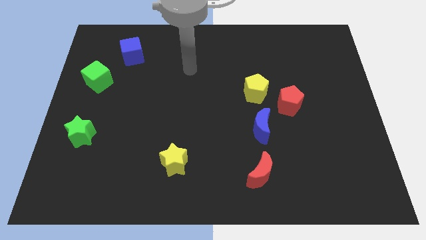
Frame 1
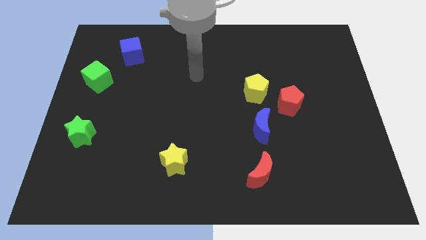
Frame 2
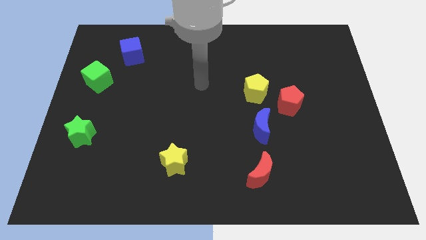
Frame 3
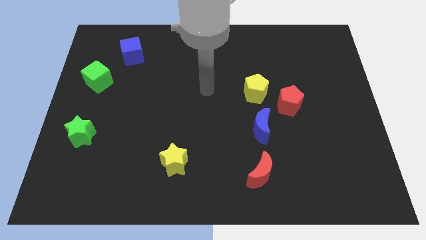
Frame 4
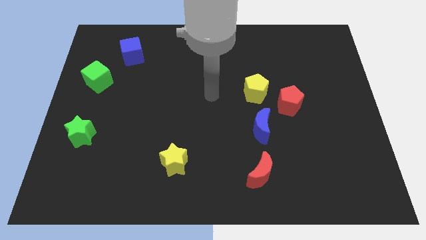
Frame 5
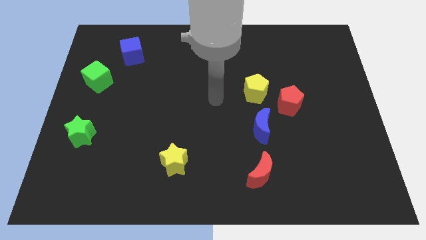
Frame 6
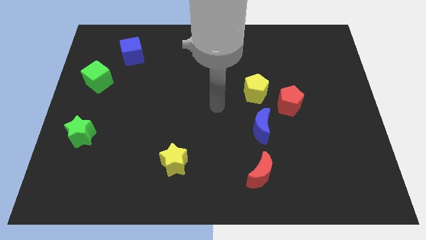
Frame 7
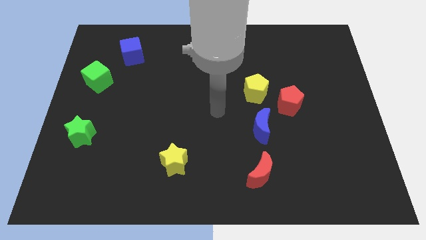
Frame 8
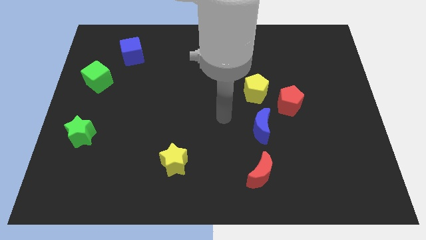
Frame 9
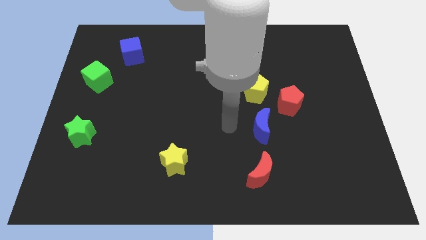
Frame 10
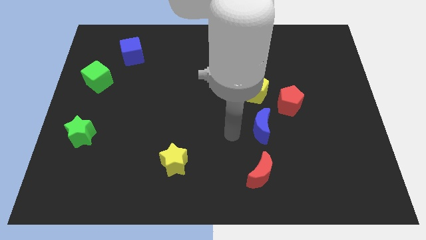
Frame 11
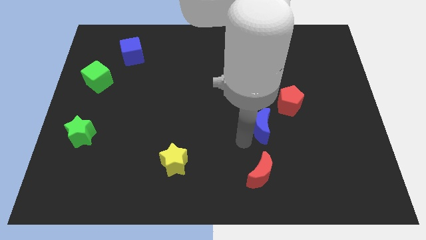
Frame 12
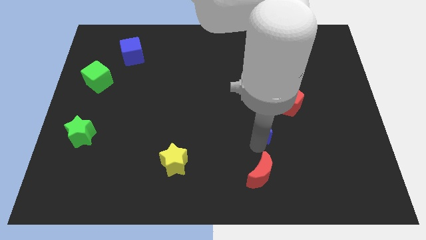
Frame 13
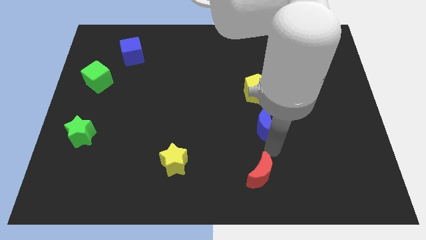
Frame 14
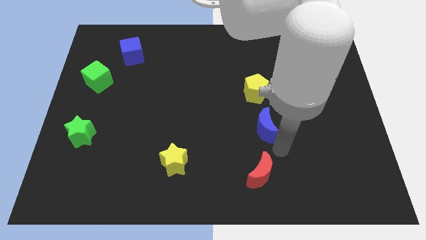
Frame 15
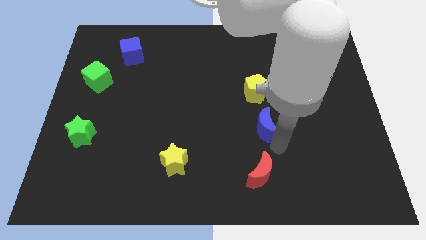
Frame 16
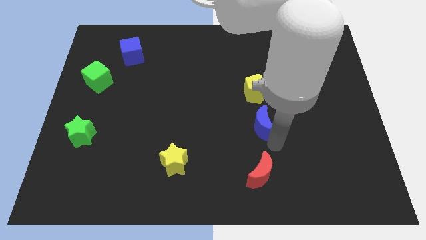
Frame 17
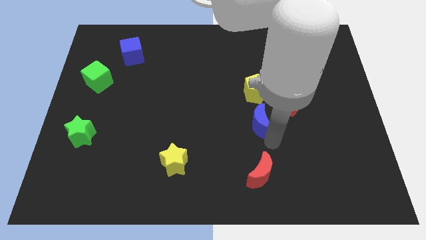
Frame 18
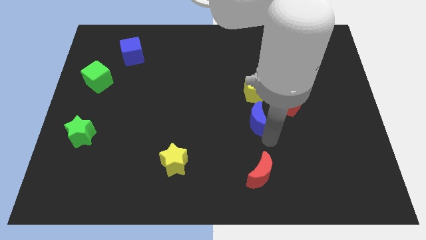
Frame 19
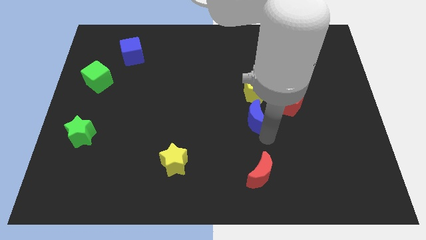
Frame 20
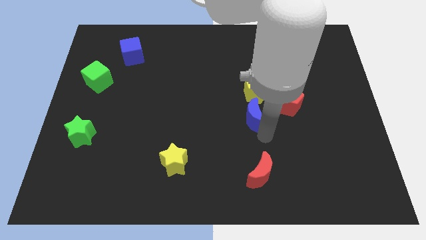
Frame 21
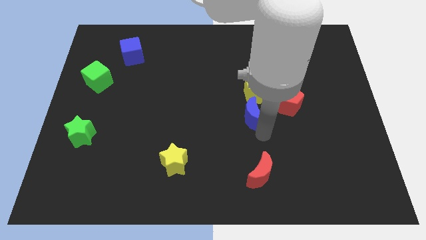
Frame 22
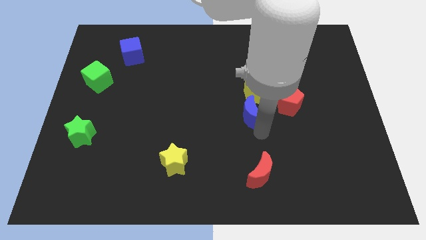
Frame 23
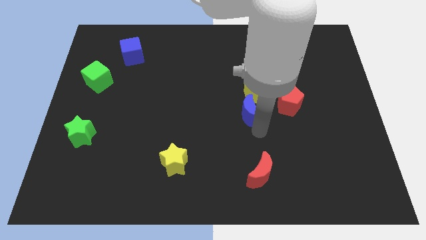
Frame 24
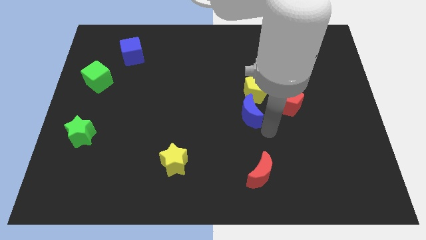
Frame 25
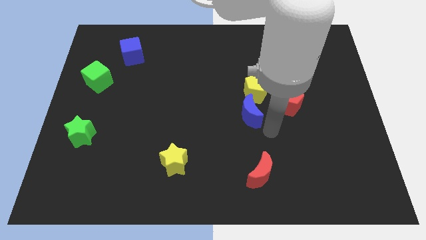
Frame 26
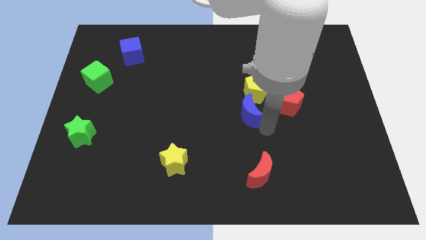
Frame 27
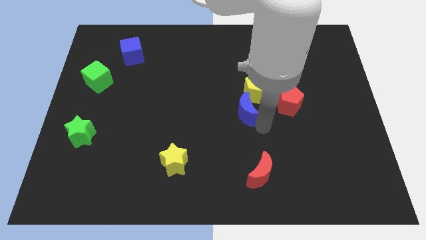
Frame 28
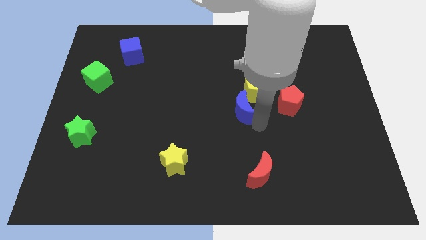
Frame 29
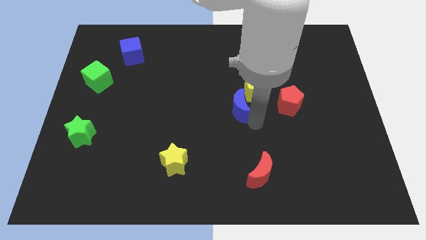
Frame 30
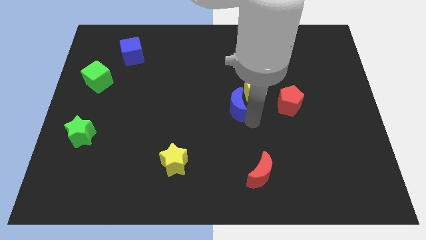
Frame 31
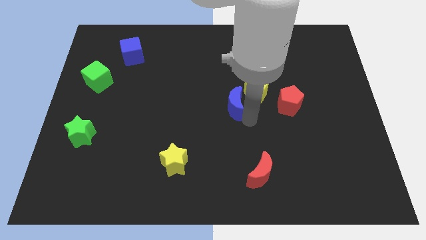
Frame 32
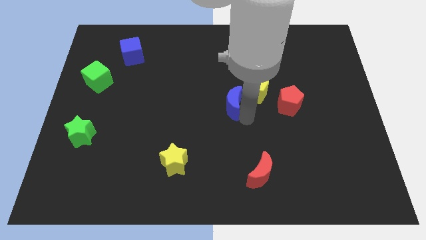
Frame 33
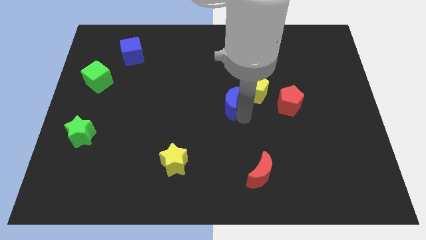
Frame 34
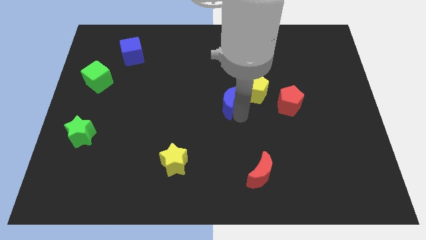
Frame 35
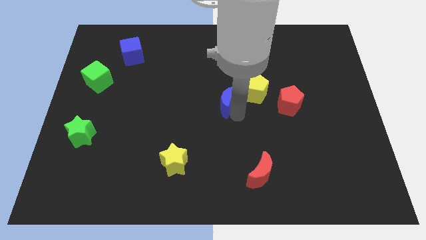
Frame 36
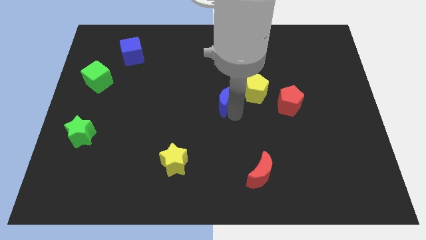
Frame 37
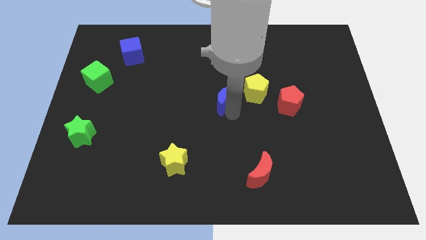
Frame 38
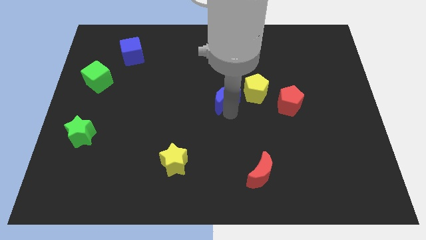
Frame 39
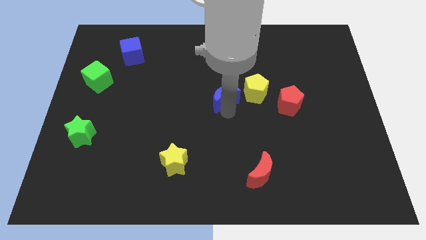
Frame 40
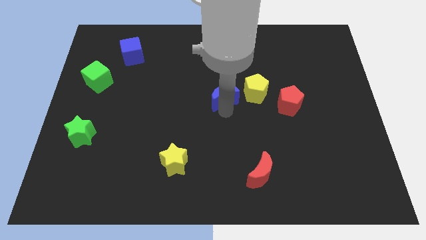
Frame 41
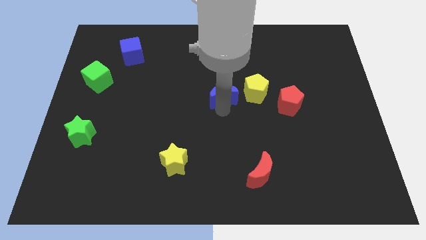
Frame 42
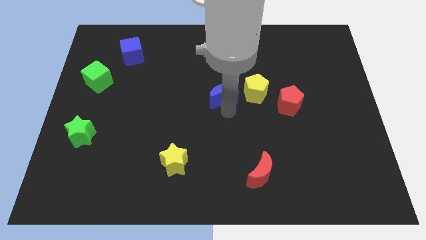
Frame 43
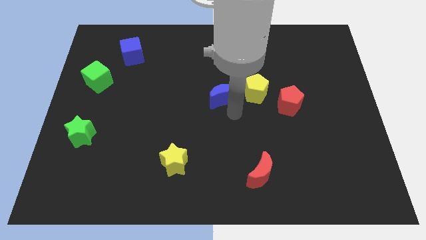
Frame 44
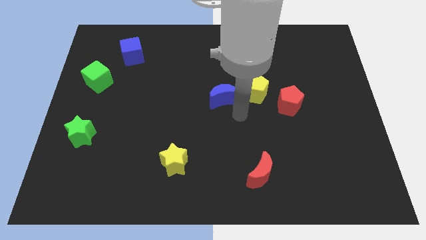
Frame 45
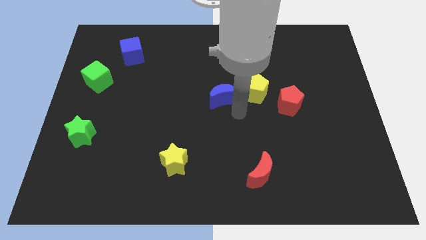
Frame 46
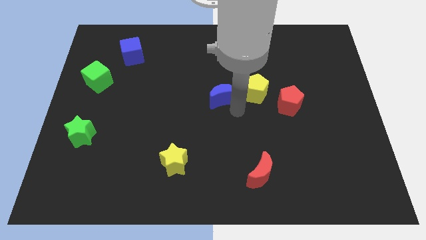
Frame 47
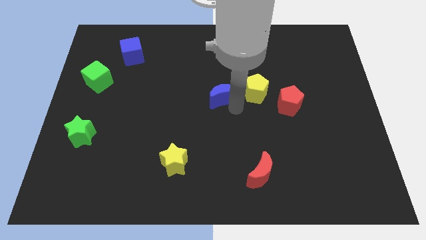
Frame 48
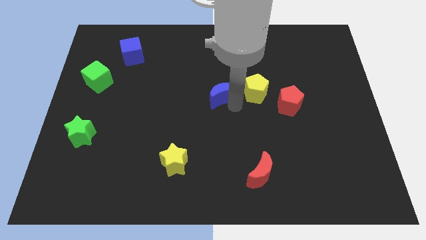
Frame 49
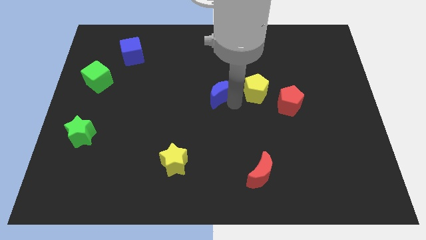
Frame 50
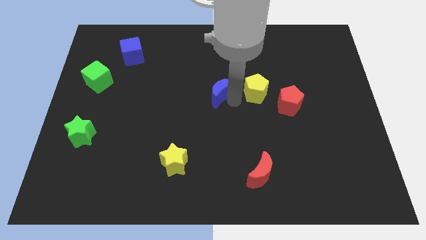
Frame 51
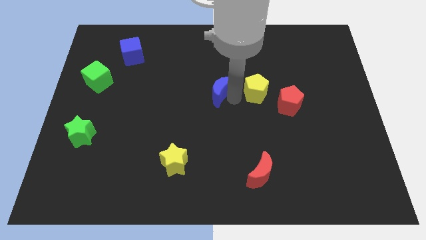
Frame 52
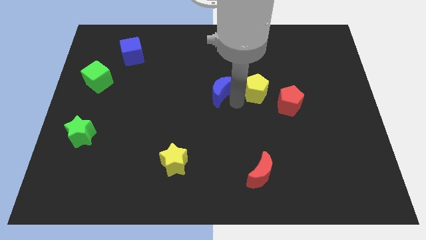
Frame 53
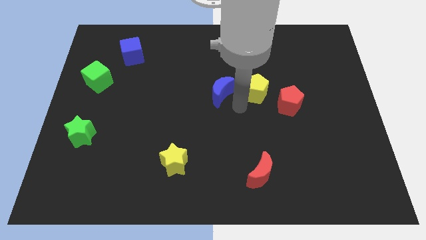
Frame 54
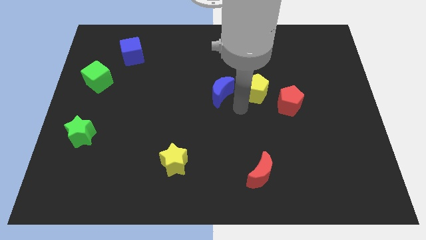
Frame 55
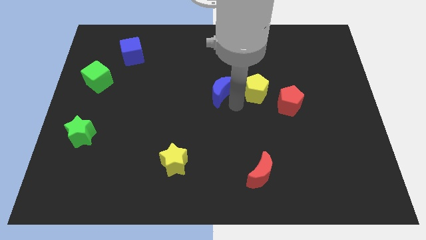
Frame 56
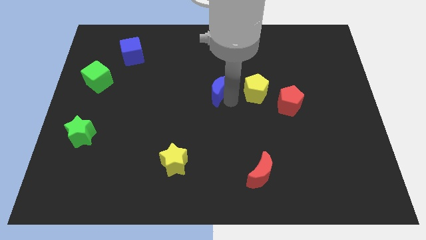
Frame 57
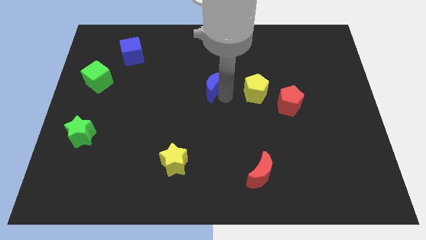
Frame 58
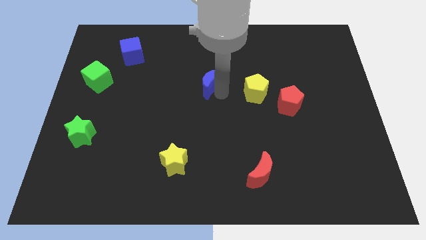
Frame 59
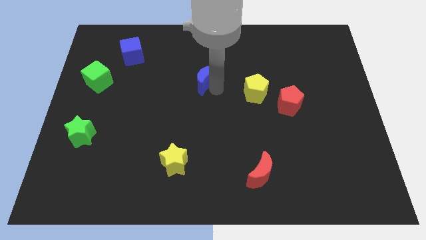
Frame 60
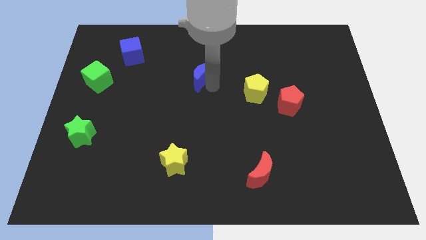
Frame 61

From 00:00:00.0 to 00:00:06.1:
move the blue moon up and left

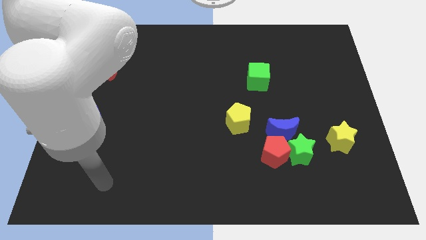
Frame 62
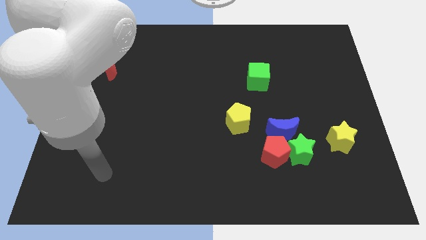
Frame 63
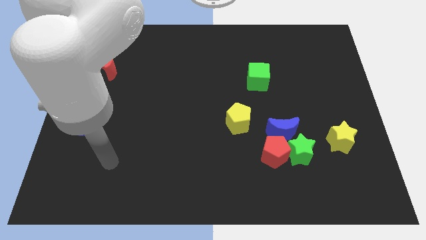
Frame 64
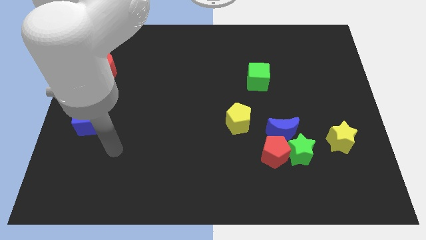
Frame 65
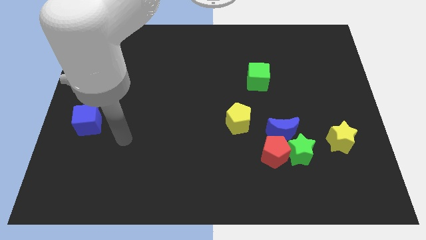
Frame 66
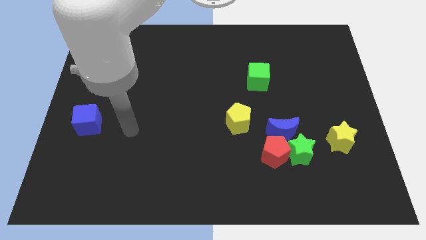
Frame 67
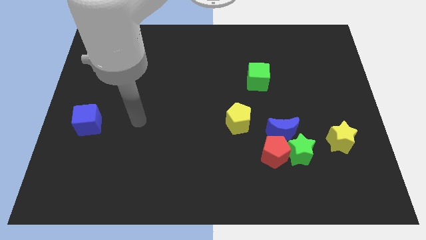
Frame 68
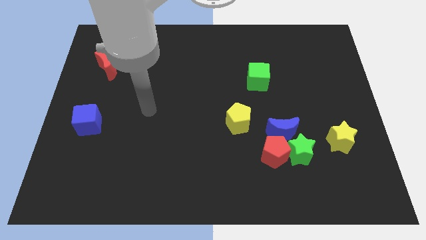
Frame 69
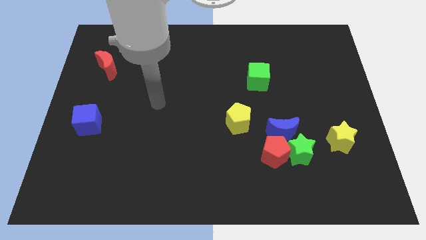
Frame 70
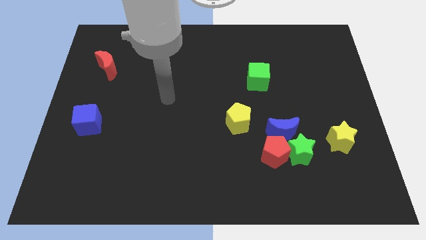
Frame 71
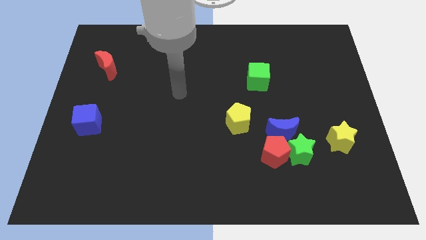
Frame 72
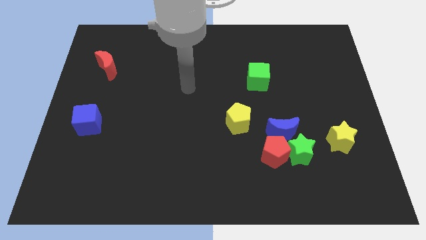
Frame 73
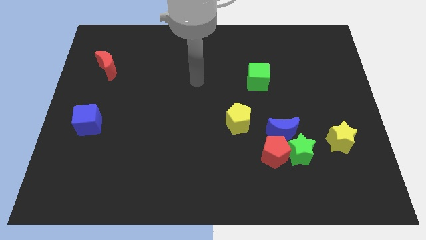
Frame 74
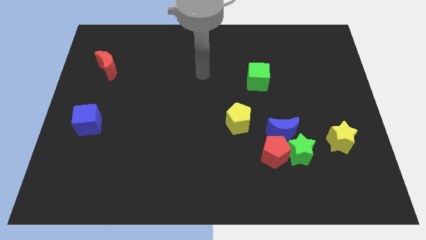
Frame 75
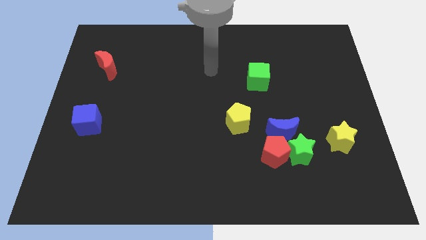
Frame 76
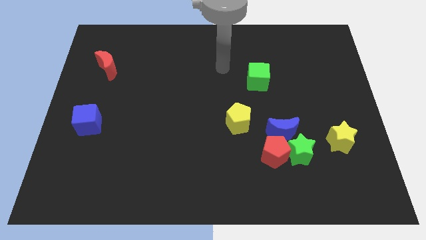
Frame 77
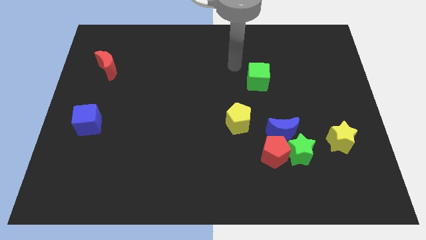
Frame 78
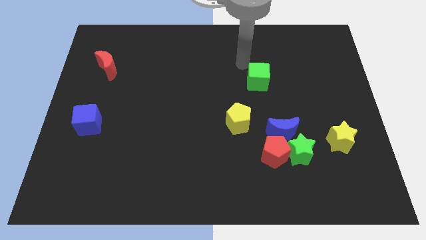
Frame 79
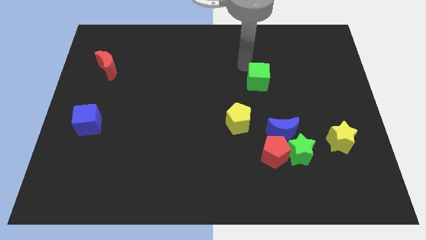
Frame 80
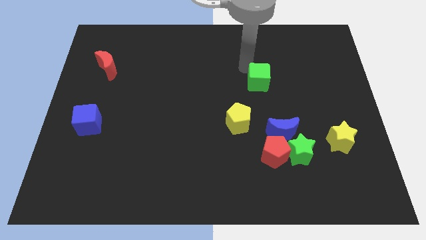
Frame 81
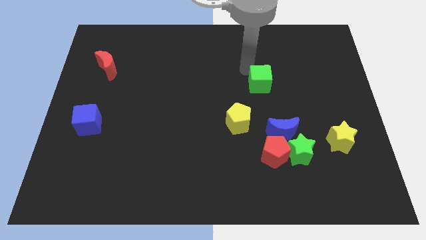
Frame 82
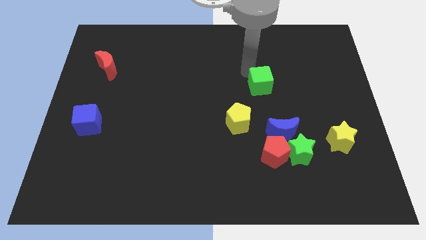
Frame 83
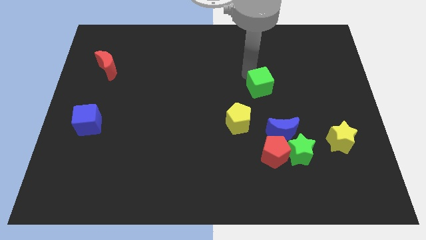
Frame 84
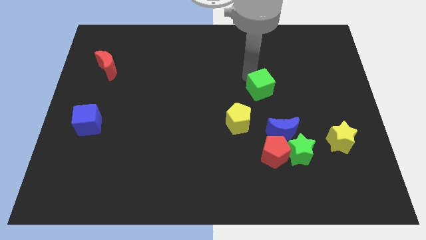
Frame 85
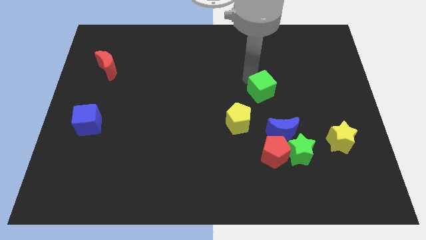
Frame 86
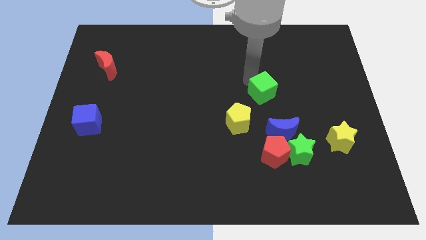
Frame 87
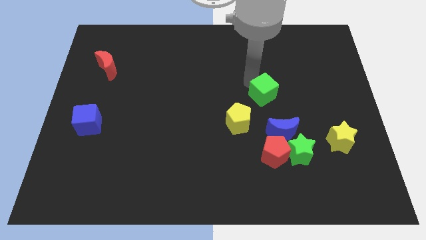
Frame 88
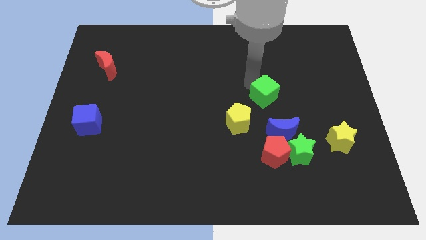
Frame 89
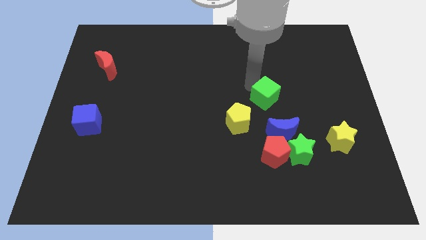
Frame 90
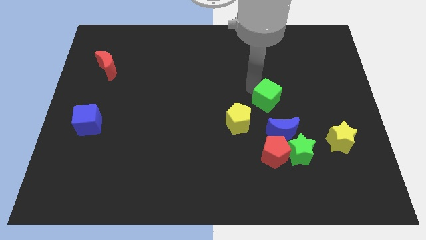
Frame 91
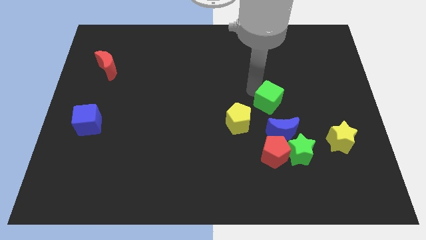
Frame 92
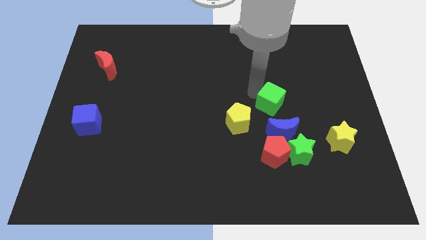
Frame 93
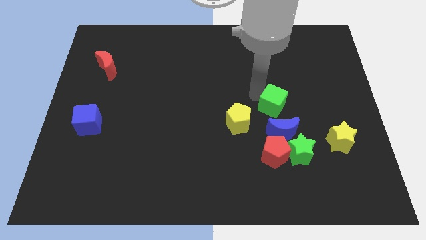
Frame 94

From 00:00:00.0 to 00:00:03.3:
move the green cube down and then to the right slightly
